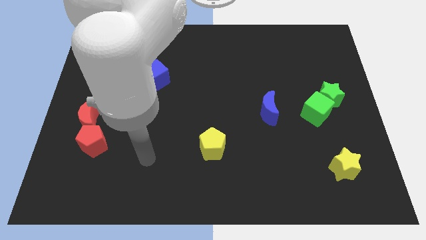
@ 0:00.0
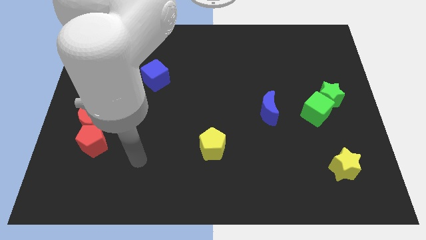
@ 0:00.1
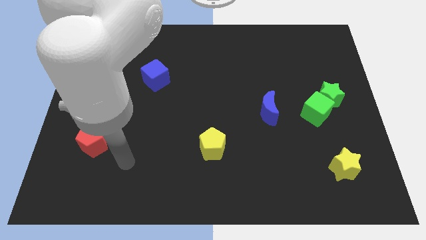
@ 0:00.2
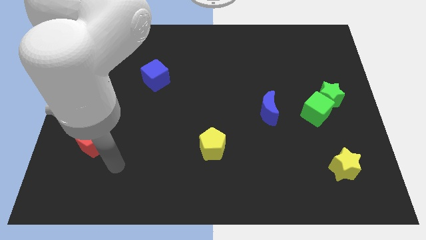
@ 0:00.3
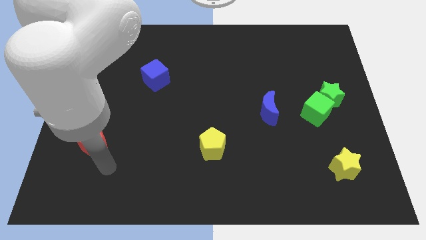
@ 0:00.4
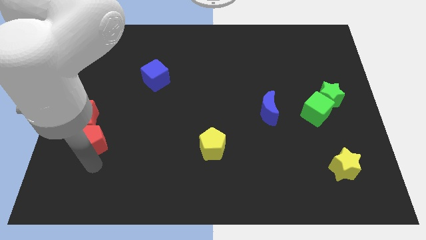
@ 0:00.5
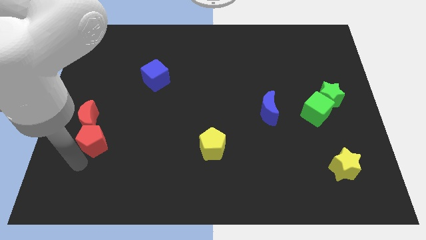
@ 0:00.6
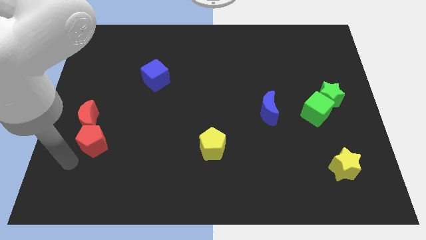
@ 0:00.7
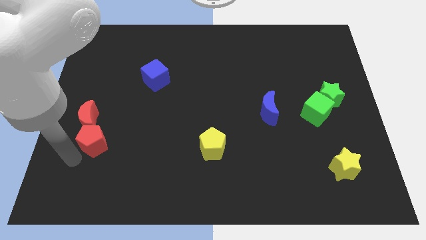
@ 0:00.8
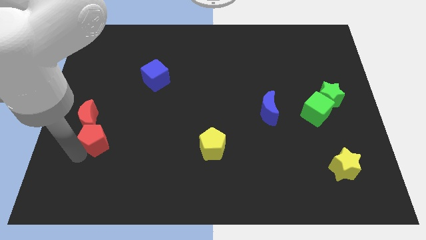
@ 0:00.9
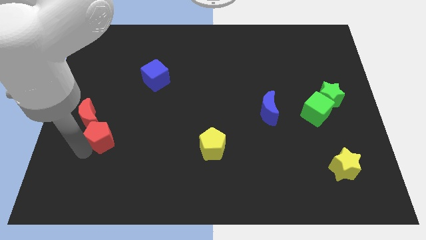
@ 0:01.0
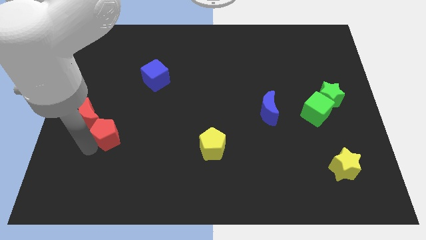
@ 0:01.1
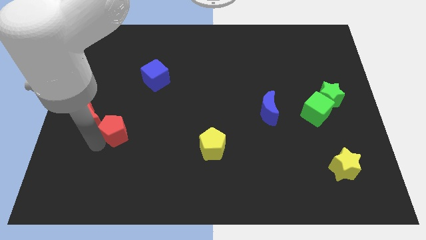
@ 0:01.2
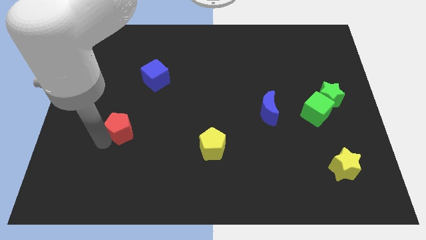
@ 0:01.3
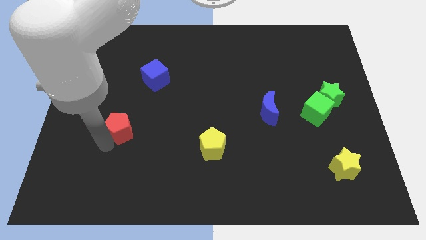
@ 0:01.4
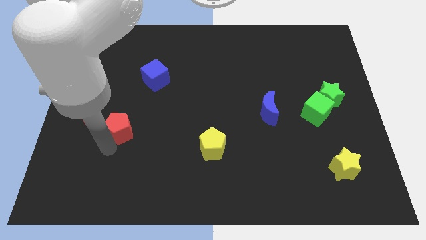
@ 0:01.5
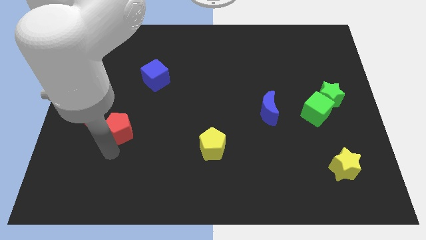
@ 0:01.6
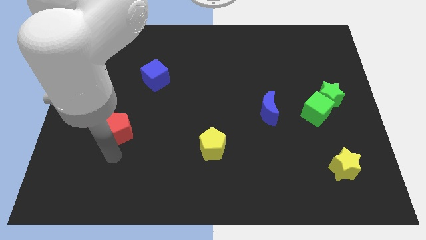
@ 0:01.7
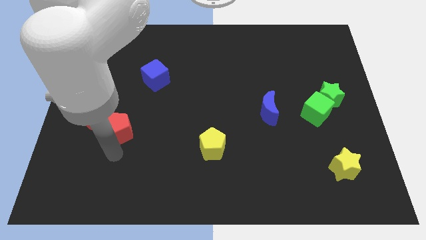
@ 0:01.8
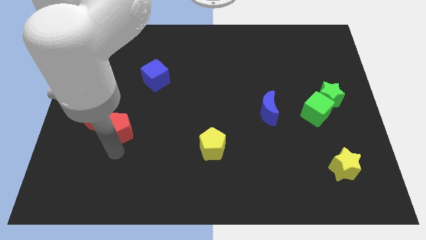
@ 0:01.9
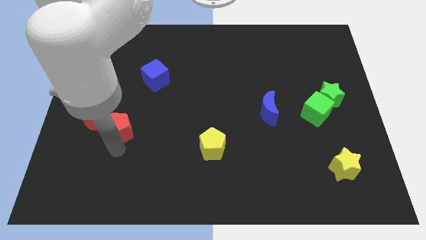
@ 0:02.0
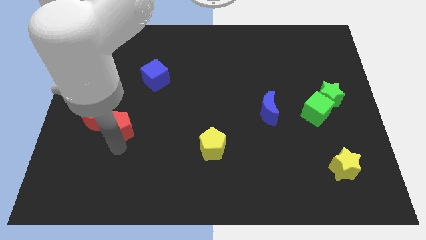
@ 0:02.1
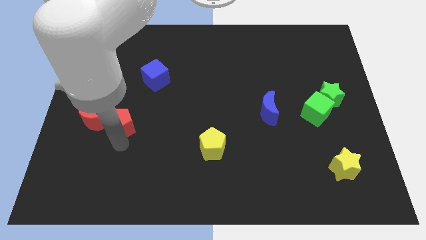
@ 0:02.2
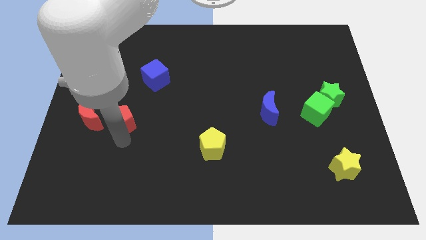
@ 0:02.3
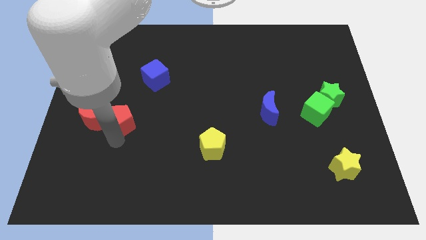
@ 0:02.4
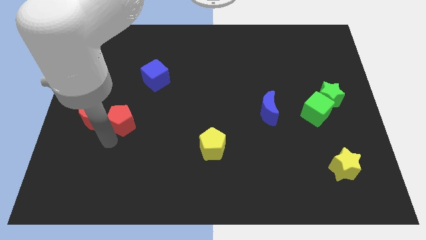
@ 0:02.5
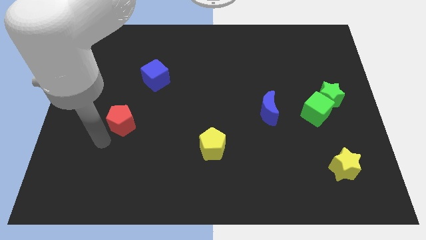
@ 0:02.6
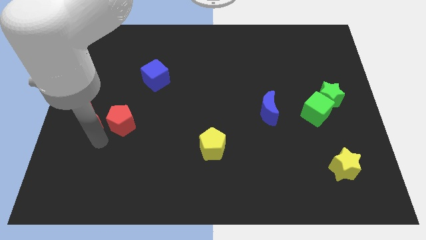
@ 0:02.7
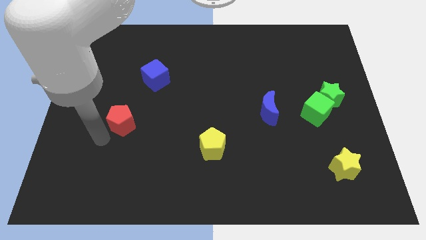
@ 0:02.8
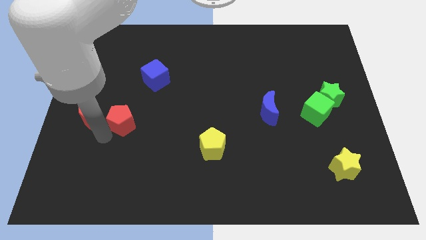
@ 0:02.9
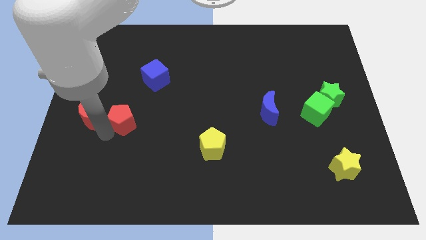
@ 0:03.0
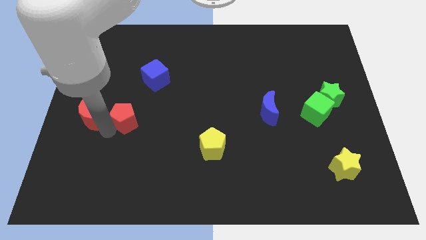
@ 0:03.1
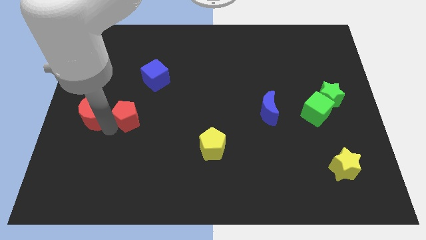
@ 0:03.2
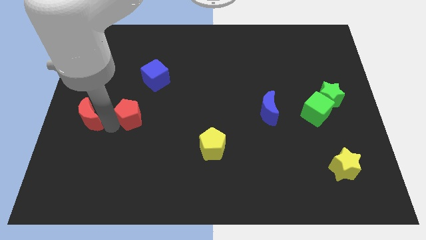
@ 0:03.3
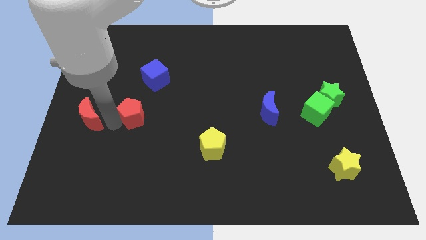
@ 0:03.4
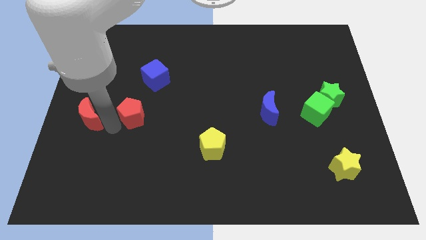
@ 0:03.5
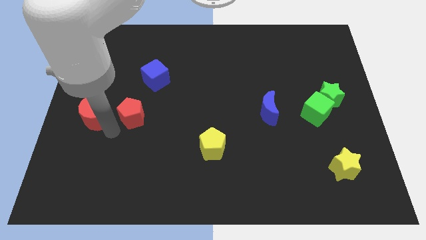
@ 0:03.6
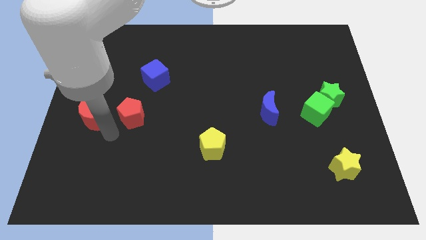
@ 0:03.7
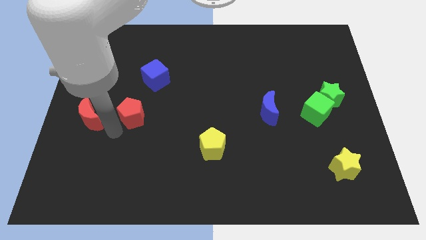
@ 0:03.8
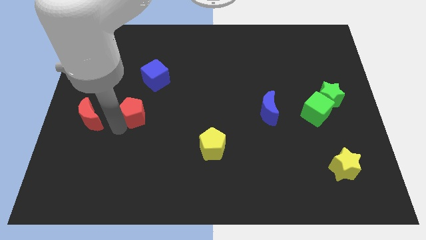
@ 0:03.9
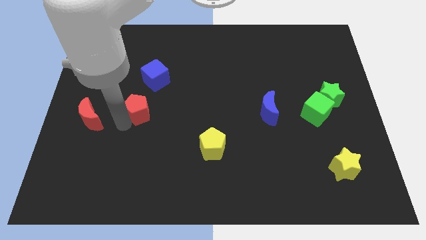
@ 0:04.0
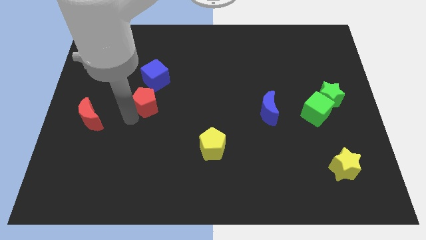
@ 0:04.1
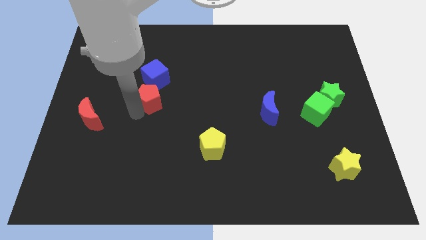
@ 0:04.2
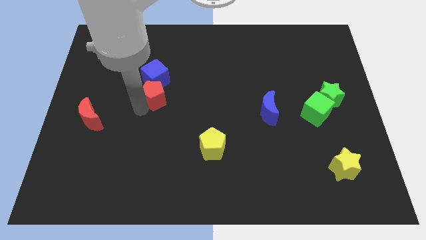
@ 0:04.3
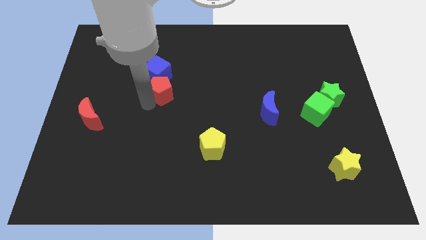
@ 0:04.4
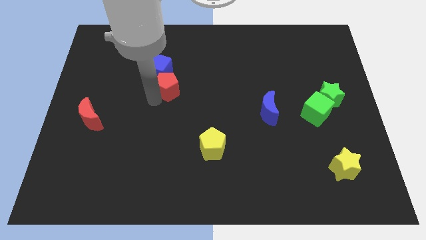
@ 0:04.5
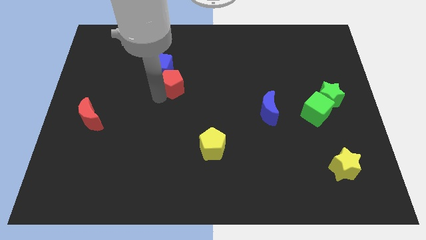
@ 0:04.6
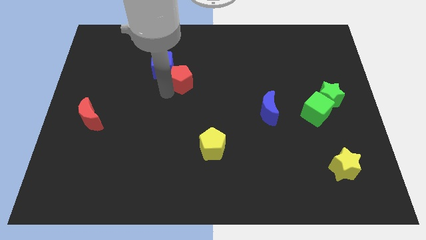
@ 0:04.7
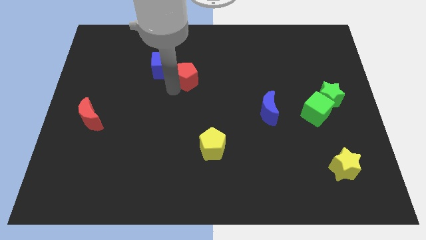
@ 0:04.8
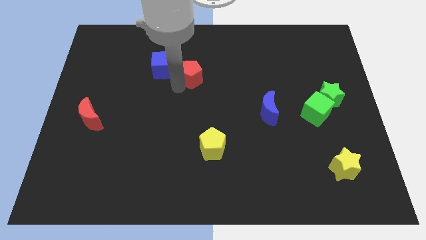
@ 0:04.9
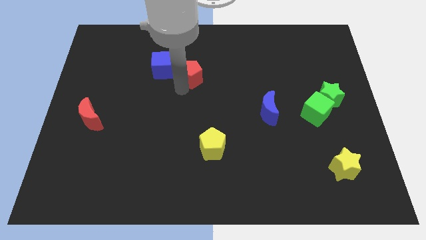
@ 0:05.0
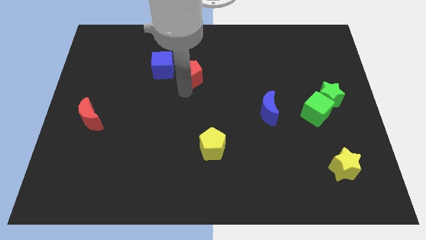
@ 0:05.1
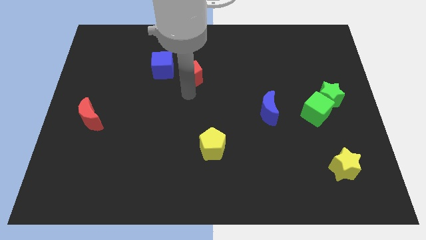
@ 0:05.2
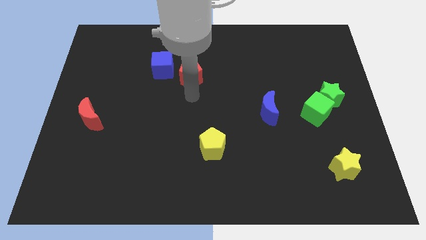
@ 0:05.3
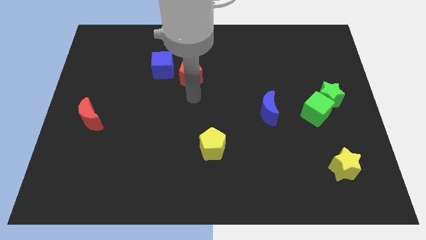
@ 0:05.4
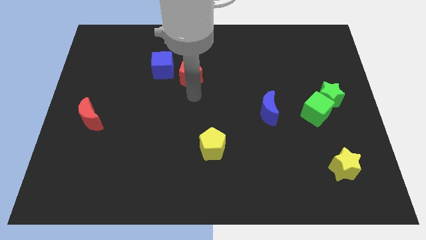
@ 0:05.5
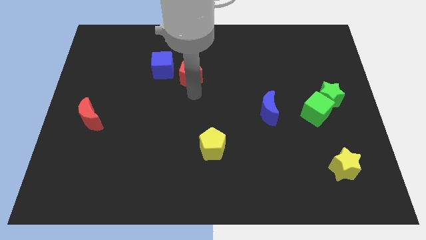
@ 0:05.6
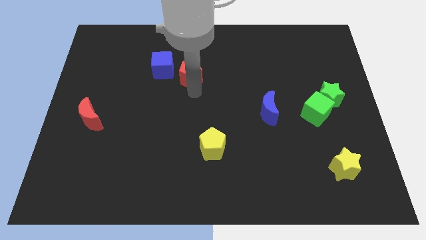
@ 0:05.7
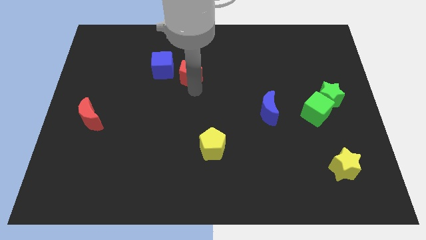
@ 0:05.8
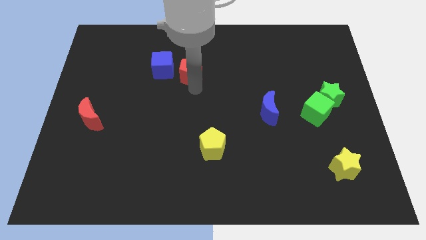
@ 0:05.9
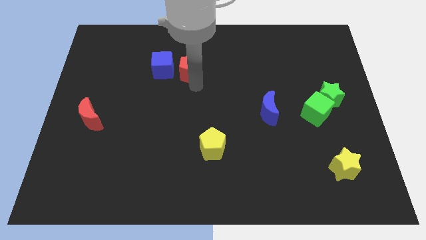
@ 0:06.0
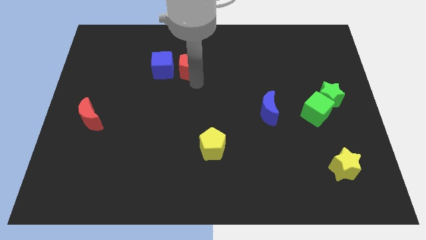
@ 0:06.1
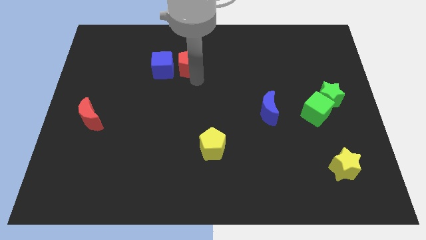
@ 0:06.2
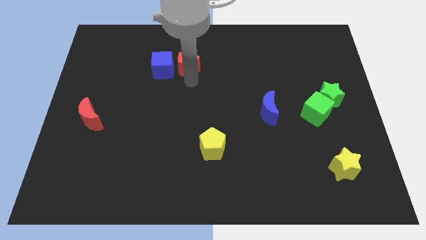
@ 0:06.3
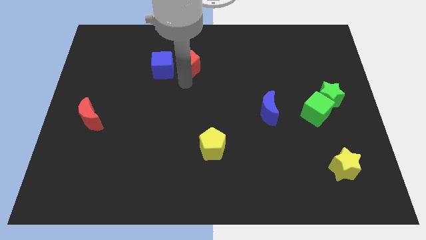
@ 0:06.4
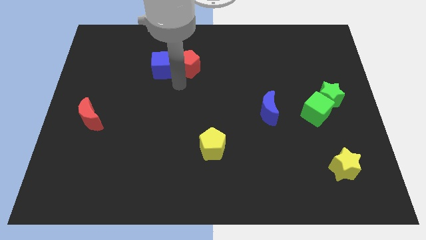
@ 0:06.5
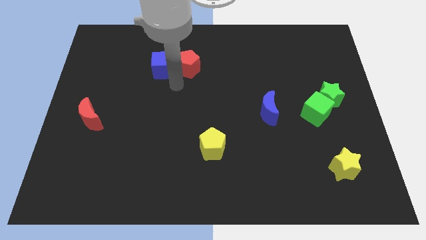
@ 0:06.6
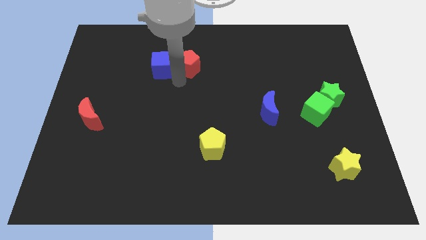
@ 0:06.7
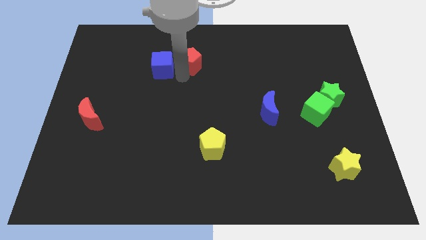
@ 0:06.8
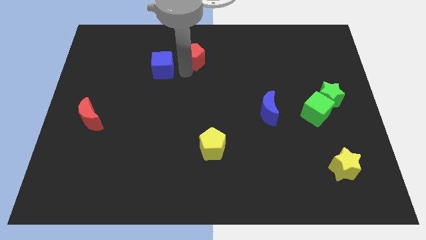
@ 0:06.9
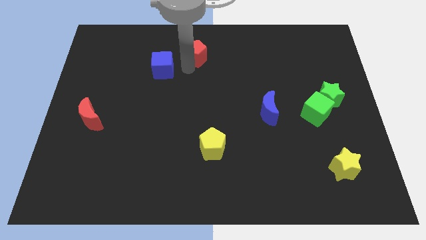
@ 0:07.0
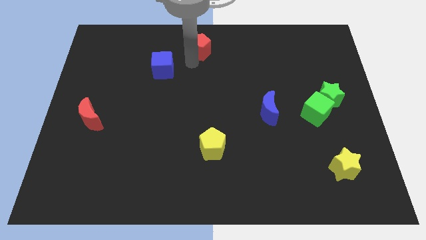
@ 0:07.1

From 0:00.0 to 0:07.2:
move the red pentagon to the top

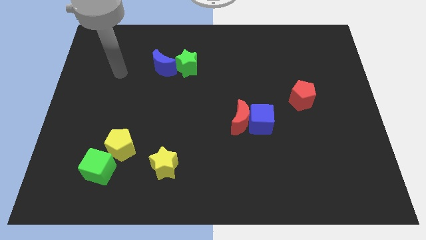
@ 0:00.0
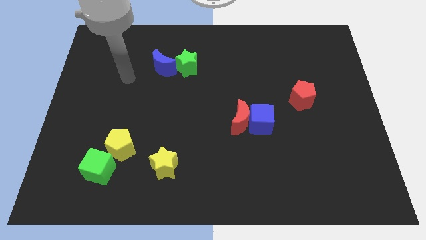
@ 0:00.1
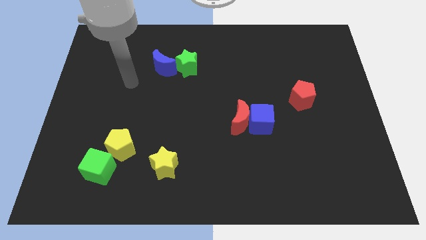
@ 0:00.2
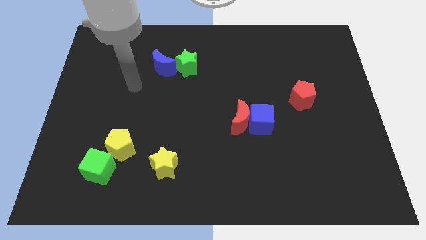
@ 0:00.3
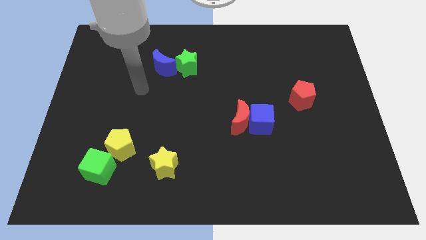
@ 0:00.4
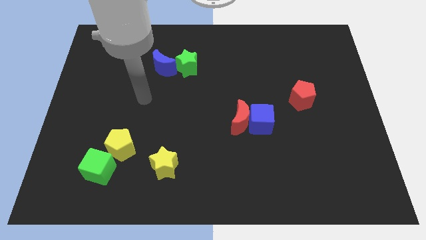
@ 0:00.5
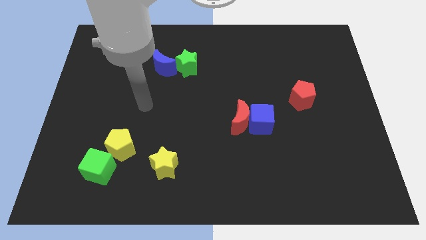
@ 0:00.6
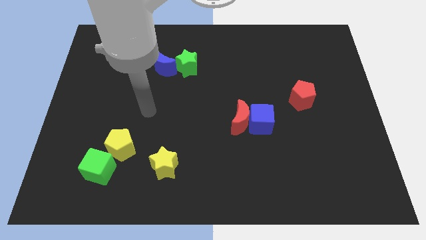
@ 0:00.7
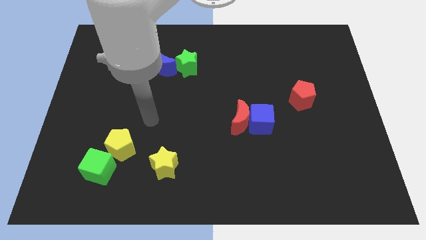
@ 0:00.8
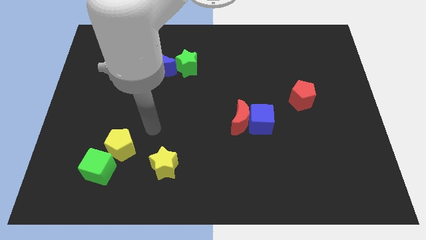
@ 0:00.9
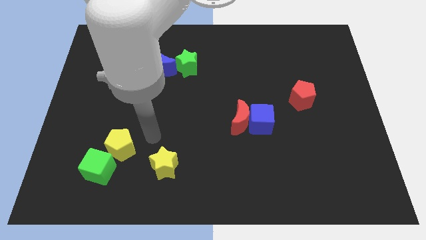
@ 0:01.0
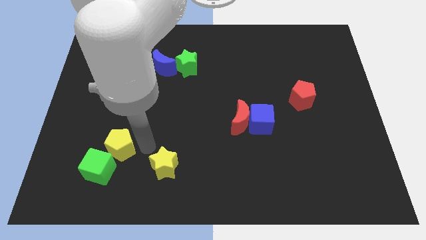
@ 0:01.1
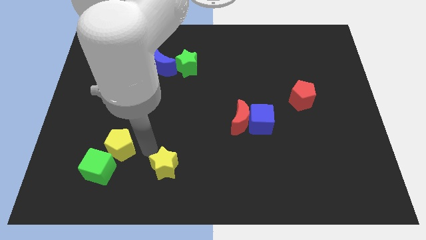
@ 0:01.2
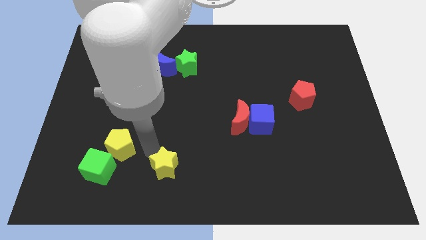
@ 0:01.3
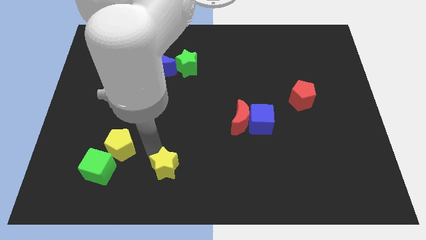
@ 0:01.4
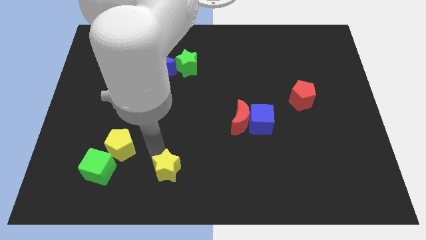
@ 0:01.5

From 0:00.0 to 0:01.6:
put the yellow star to the bottom side
